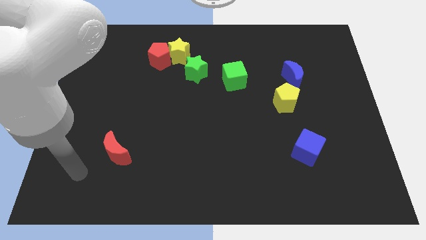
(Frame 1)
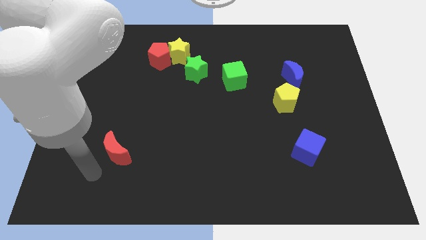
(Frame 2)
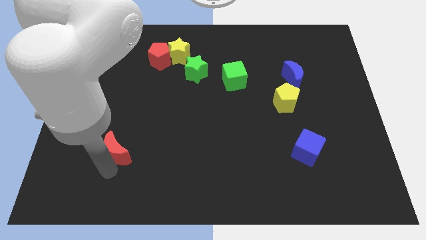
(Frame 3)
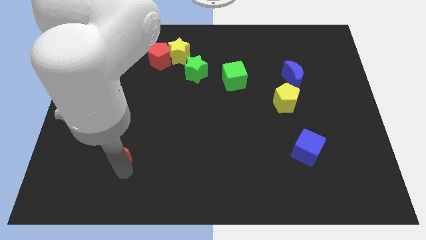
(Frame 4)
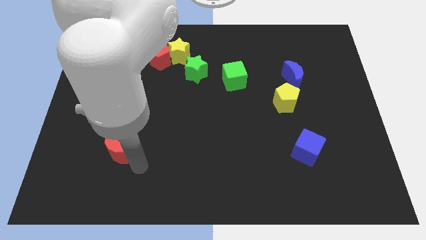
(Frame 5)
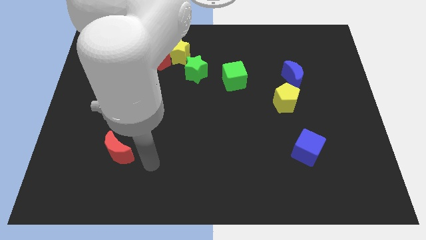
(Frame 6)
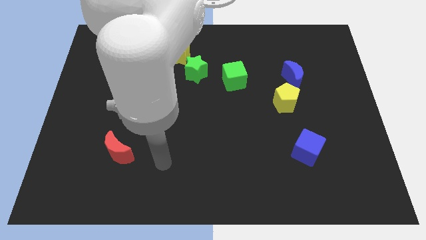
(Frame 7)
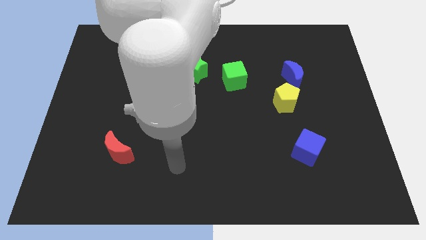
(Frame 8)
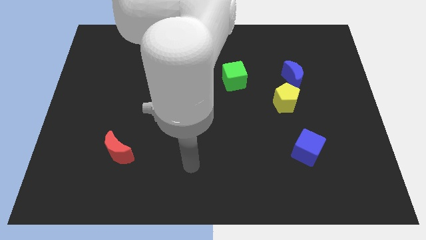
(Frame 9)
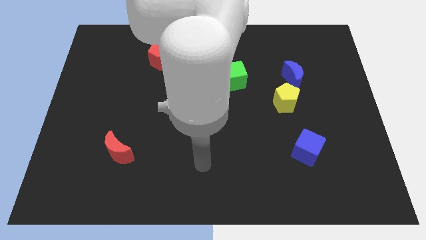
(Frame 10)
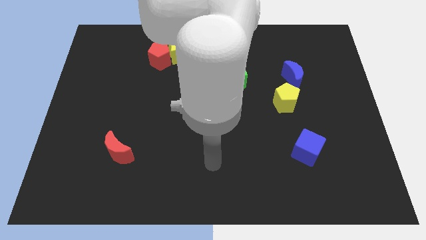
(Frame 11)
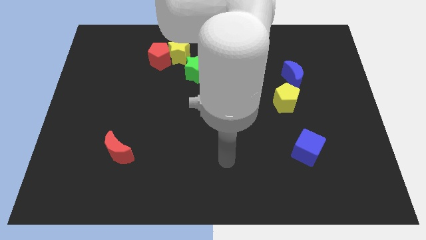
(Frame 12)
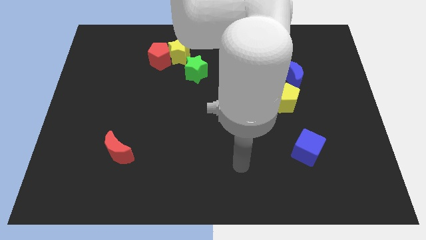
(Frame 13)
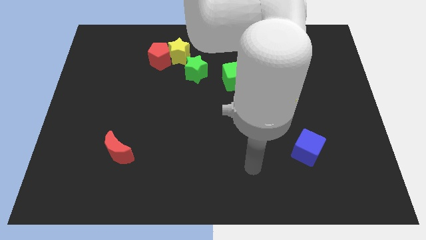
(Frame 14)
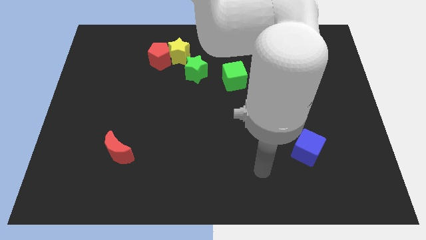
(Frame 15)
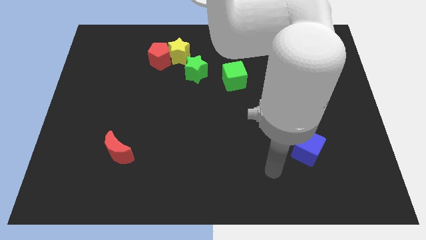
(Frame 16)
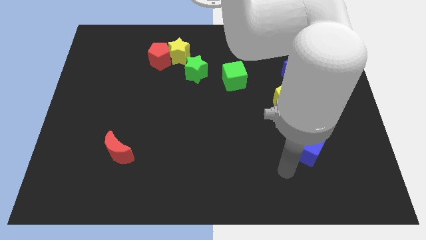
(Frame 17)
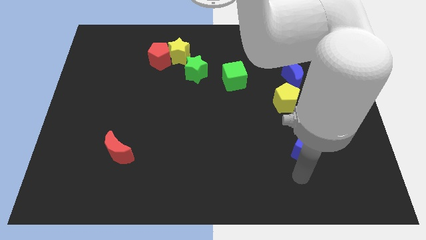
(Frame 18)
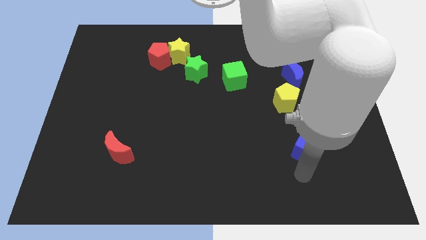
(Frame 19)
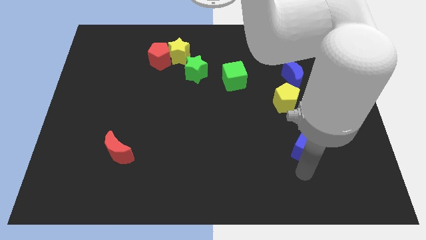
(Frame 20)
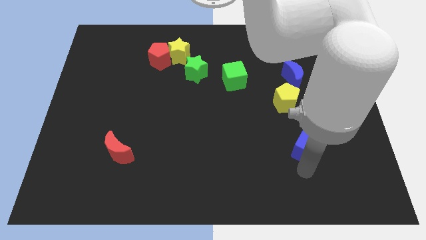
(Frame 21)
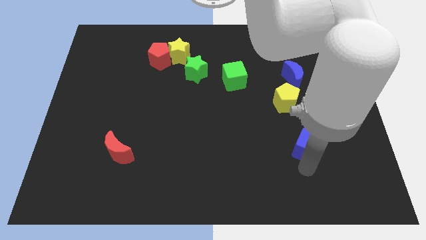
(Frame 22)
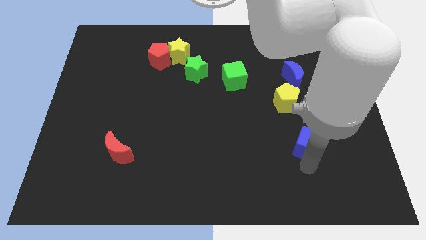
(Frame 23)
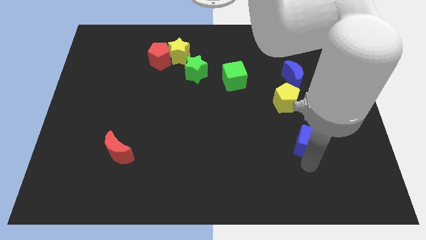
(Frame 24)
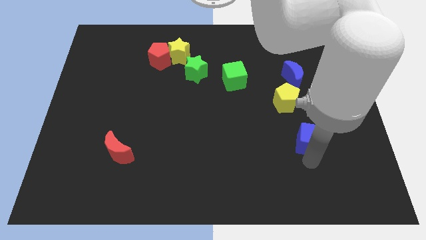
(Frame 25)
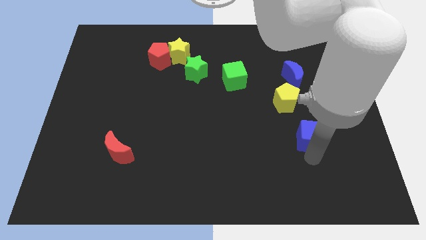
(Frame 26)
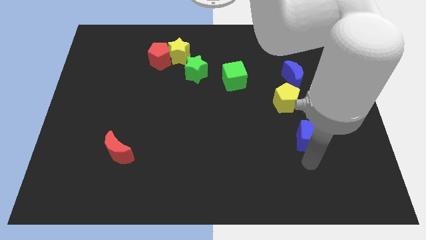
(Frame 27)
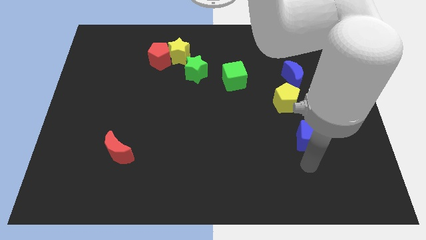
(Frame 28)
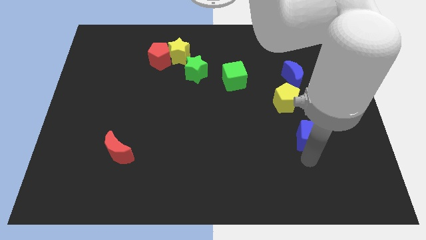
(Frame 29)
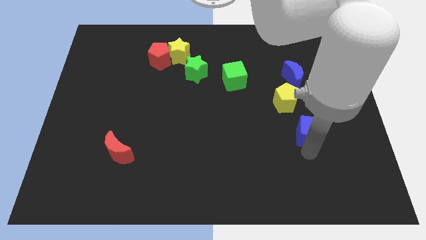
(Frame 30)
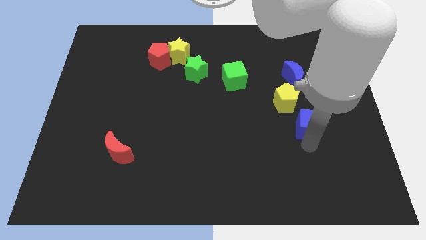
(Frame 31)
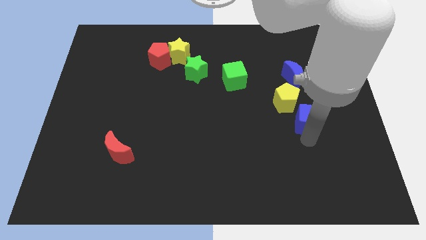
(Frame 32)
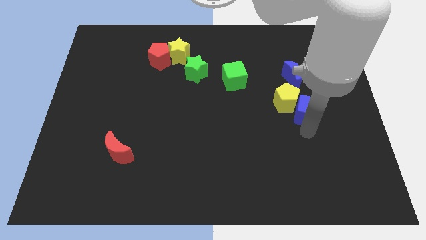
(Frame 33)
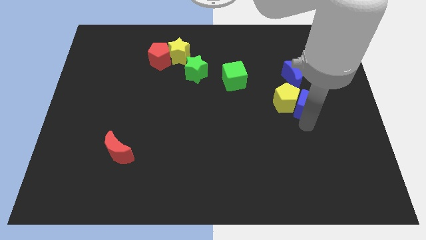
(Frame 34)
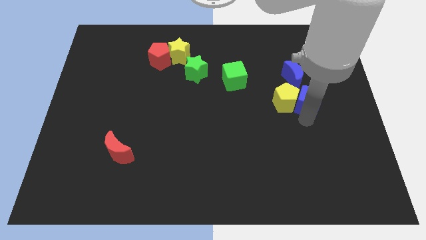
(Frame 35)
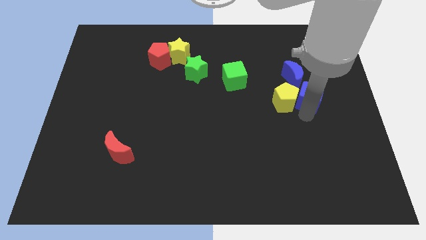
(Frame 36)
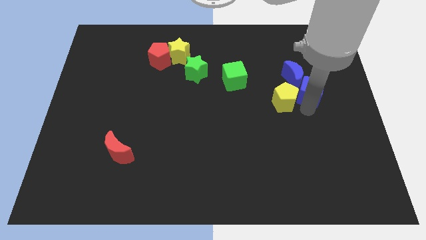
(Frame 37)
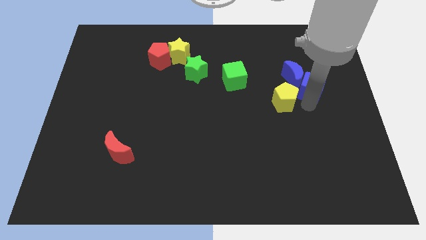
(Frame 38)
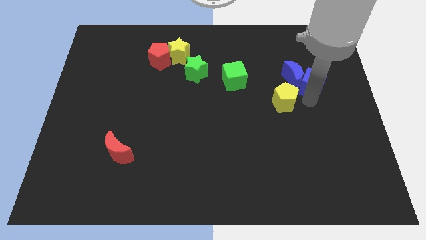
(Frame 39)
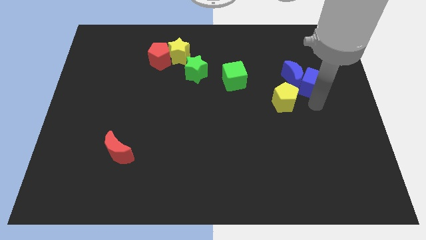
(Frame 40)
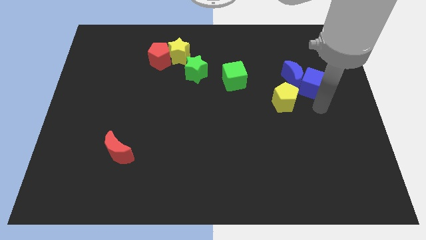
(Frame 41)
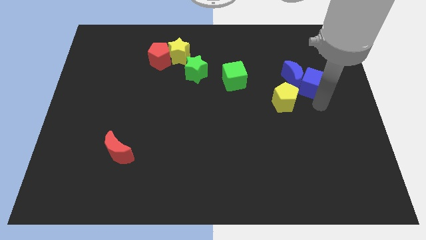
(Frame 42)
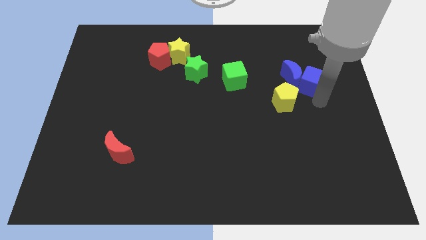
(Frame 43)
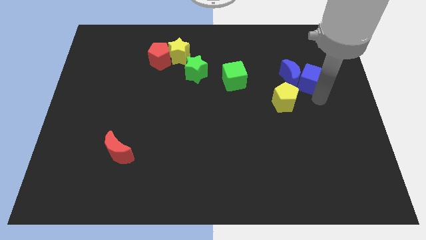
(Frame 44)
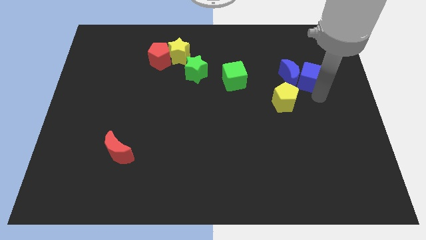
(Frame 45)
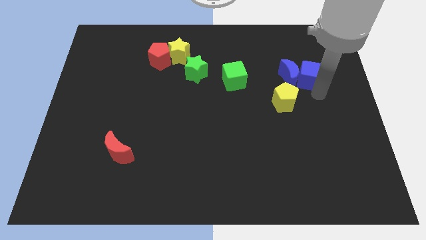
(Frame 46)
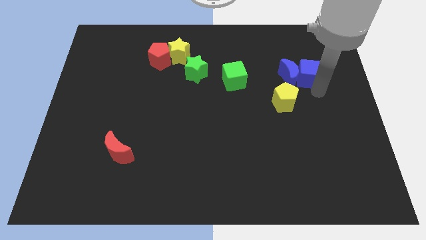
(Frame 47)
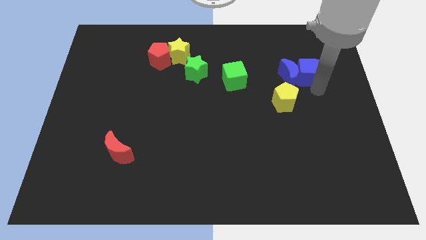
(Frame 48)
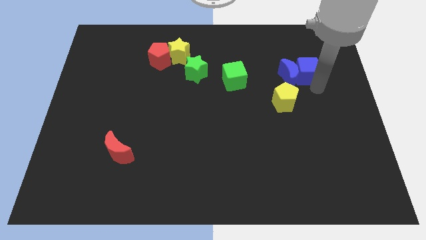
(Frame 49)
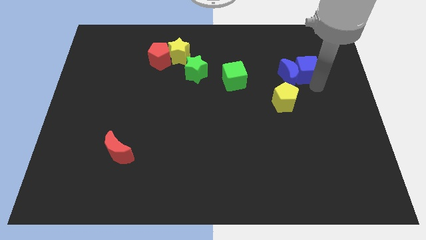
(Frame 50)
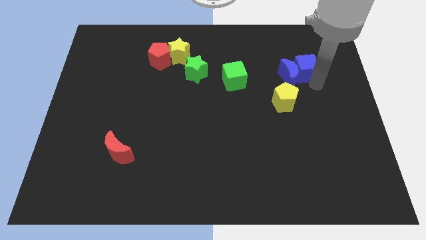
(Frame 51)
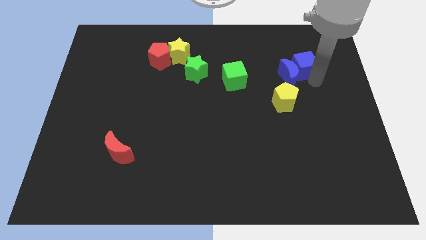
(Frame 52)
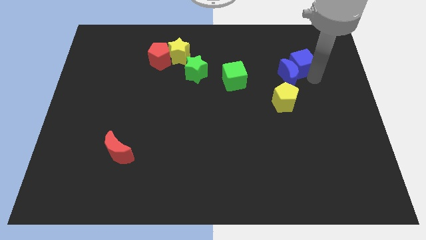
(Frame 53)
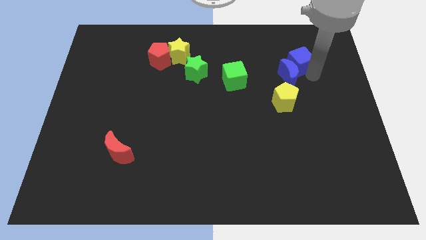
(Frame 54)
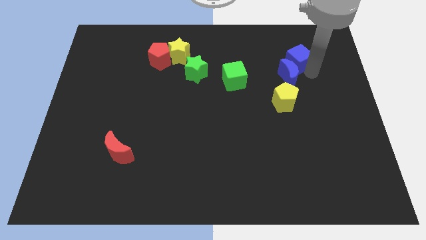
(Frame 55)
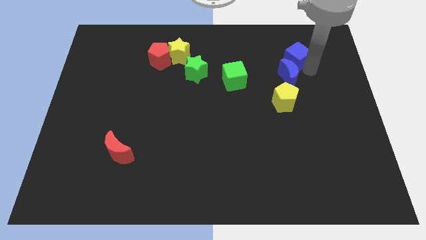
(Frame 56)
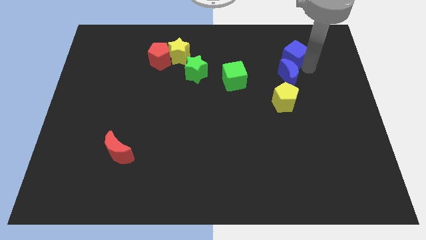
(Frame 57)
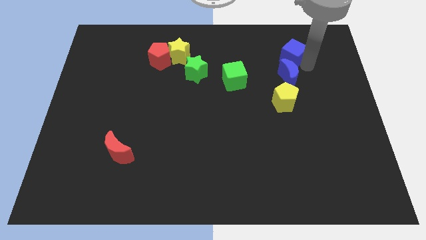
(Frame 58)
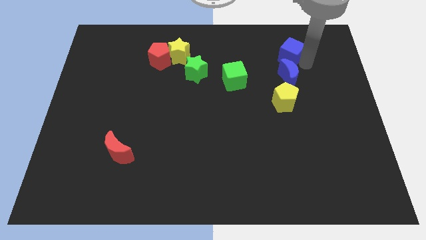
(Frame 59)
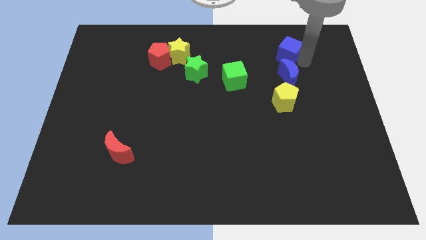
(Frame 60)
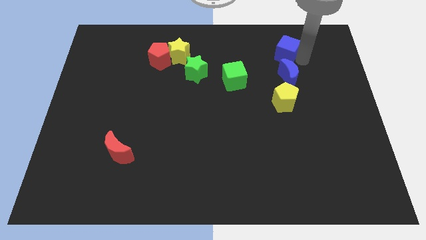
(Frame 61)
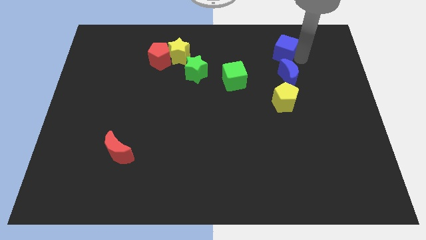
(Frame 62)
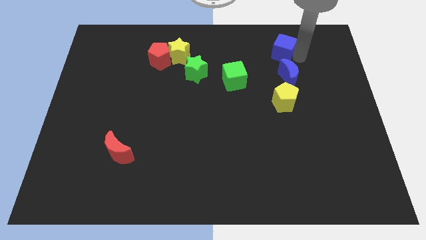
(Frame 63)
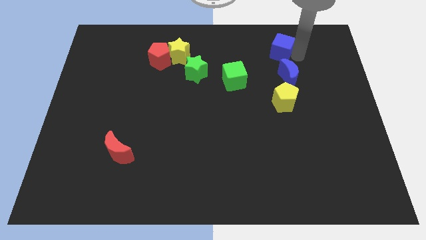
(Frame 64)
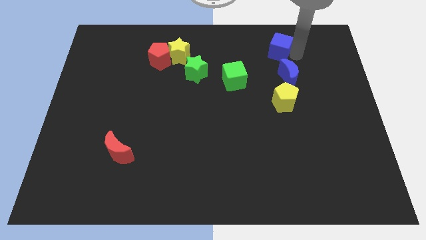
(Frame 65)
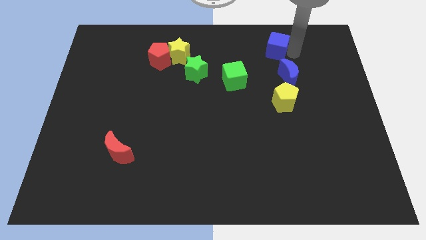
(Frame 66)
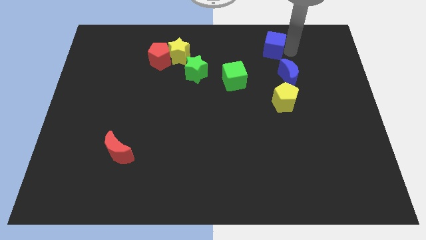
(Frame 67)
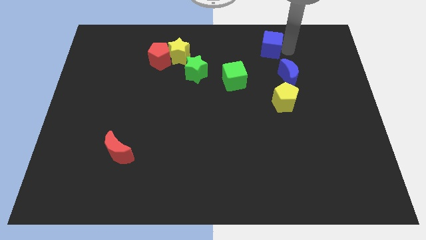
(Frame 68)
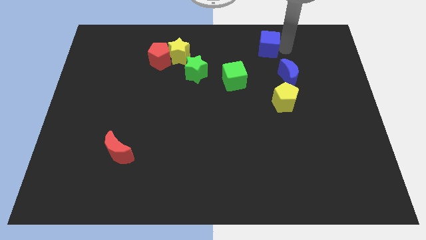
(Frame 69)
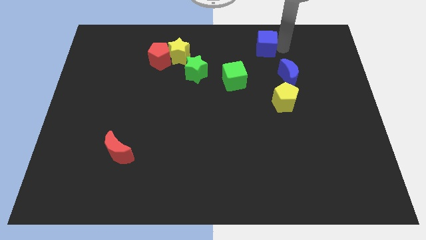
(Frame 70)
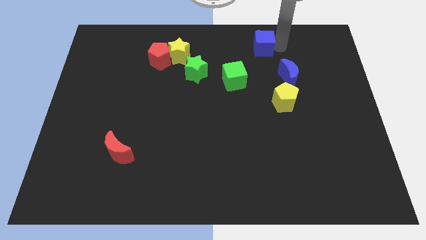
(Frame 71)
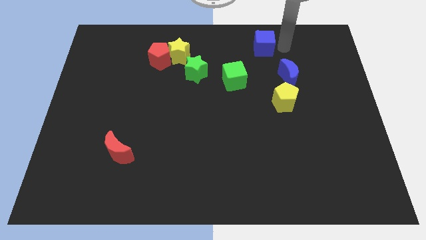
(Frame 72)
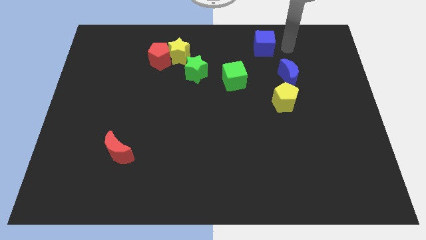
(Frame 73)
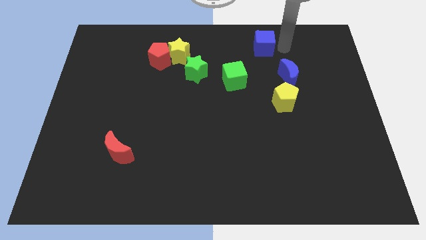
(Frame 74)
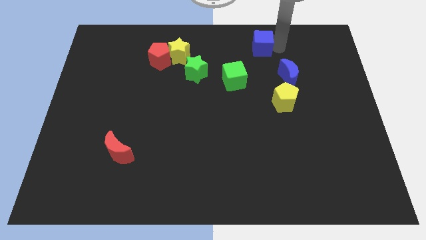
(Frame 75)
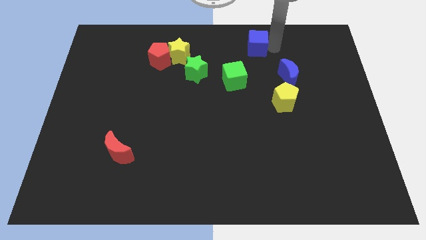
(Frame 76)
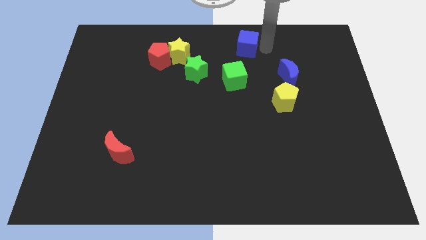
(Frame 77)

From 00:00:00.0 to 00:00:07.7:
move the blue cube to the towards your base
